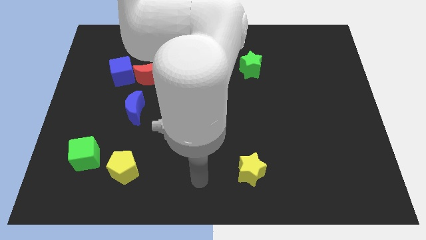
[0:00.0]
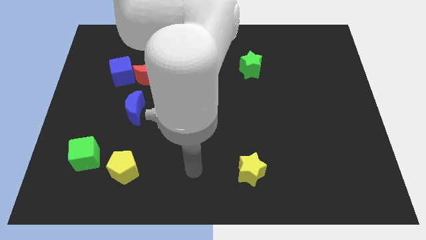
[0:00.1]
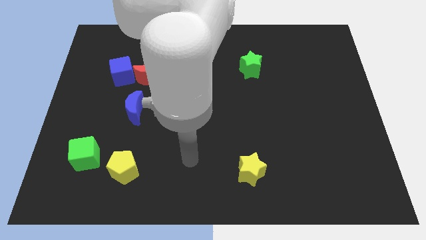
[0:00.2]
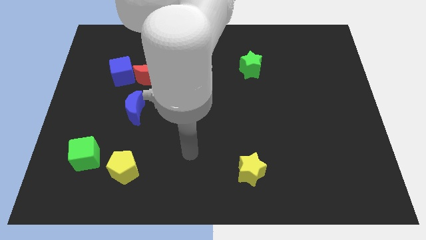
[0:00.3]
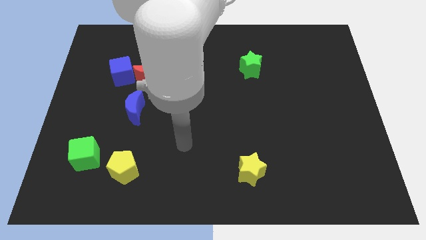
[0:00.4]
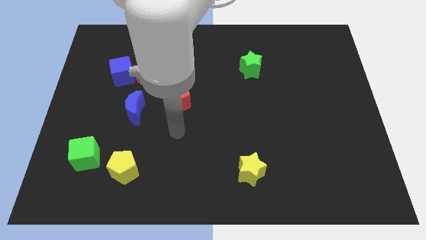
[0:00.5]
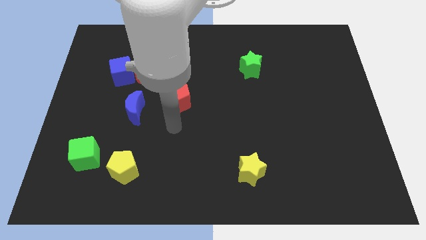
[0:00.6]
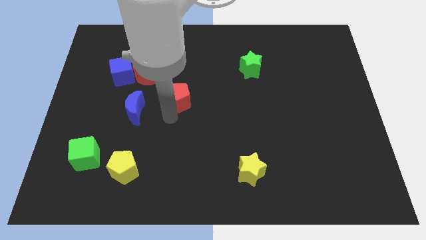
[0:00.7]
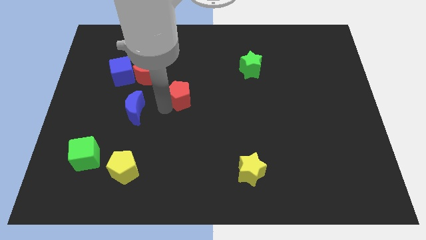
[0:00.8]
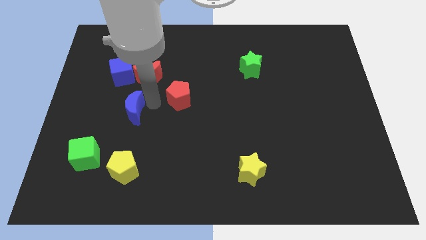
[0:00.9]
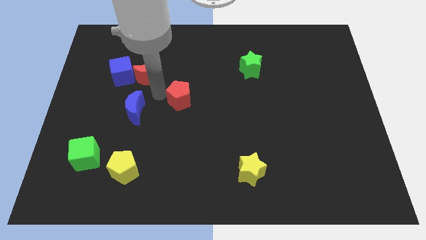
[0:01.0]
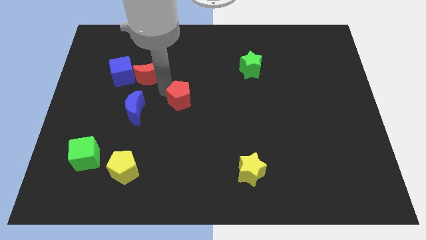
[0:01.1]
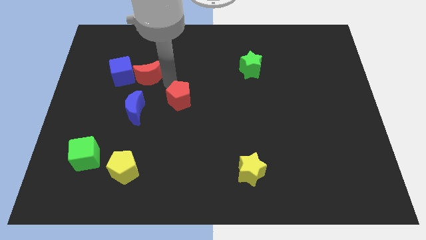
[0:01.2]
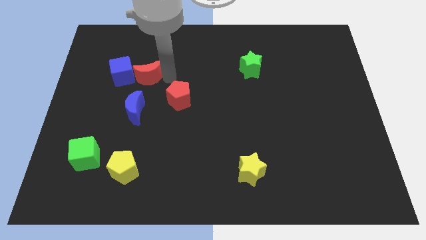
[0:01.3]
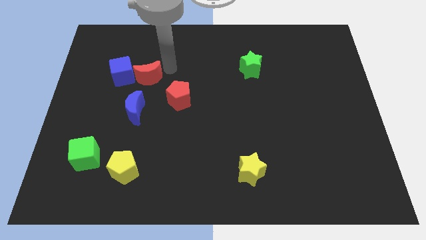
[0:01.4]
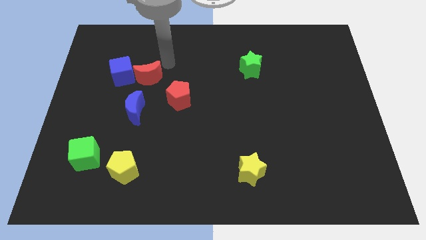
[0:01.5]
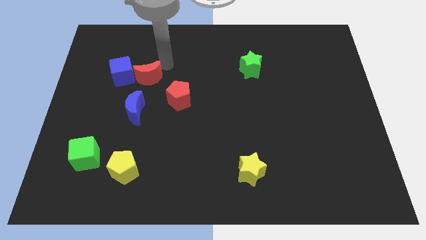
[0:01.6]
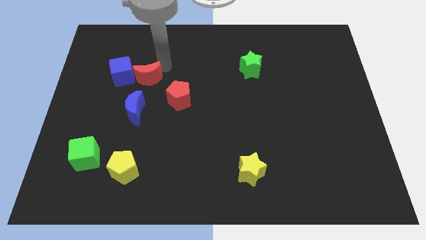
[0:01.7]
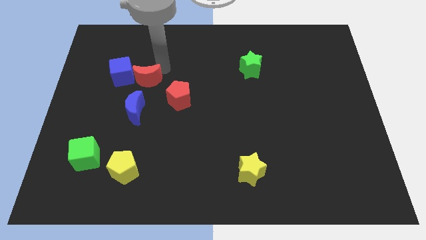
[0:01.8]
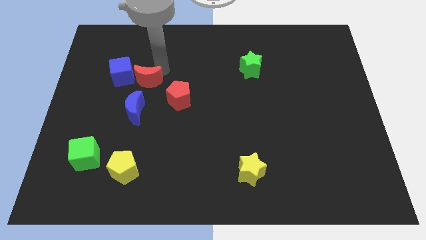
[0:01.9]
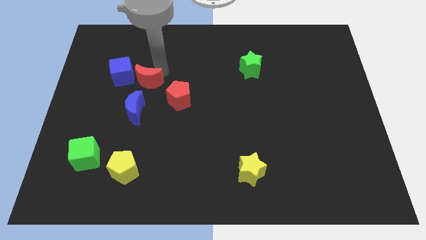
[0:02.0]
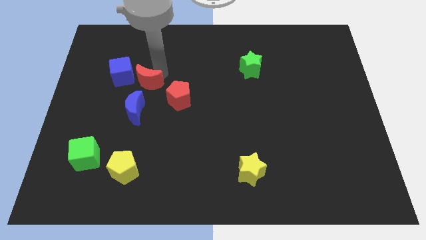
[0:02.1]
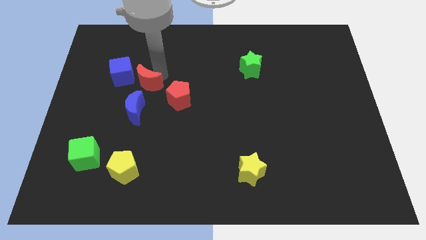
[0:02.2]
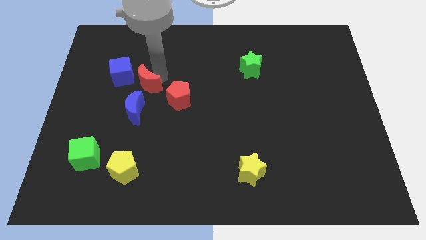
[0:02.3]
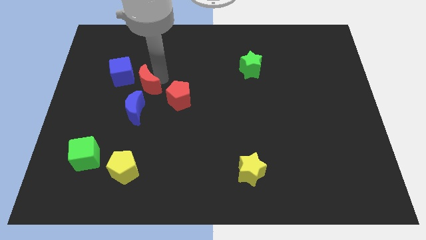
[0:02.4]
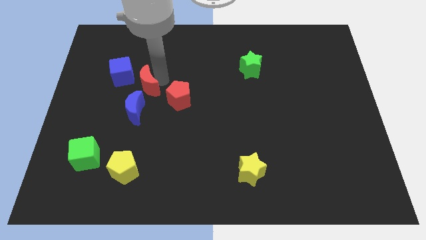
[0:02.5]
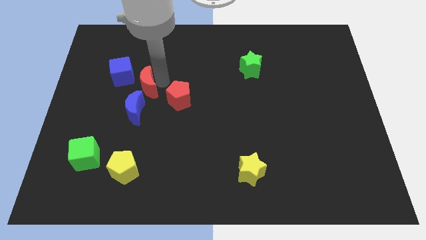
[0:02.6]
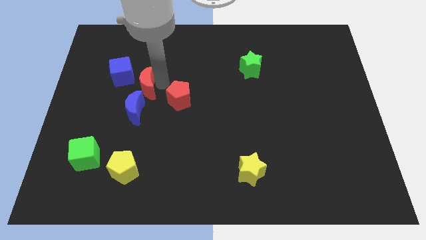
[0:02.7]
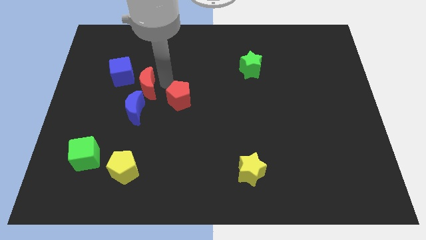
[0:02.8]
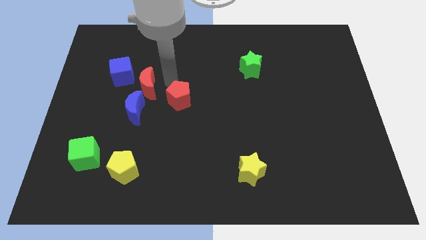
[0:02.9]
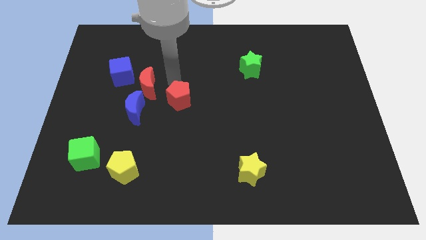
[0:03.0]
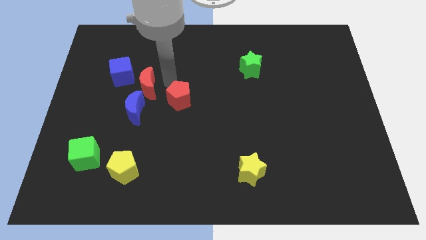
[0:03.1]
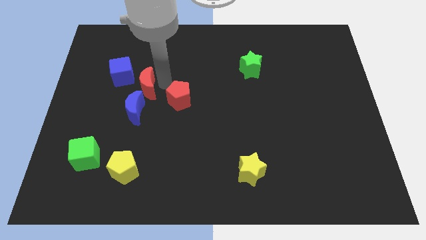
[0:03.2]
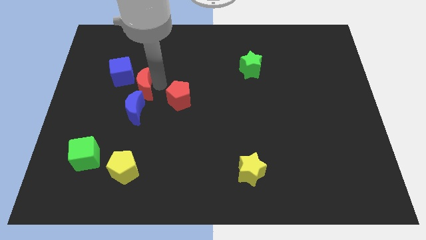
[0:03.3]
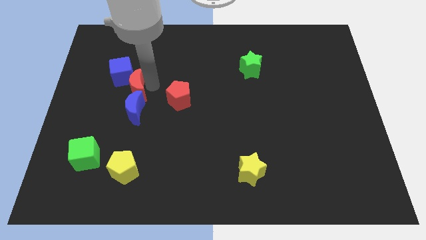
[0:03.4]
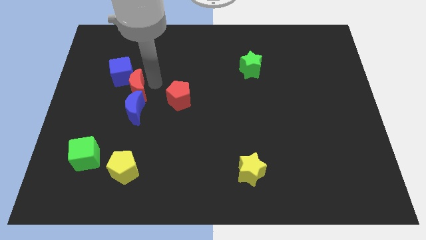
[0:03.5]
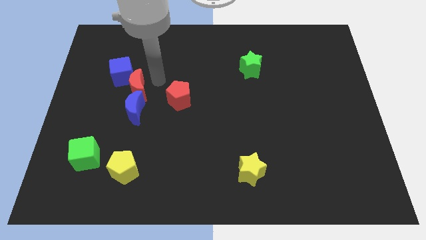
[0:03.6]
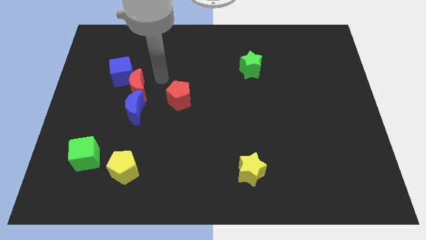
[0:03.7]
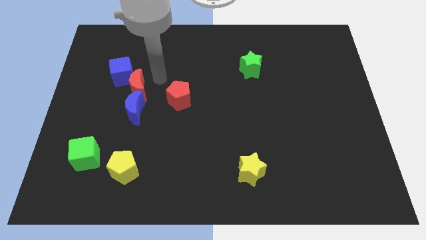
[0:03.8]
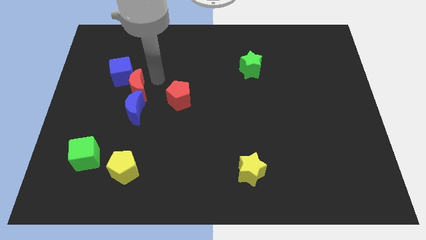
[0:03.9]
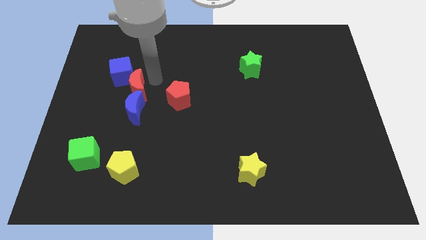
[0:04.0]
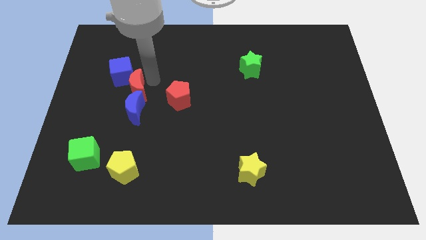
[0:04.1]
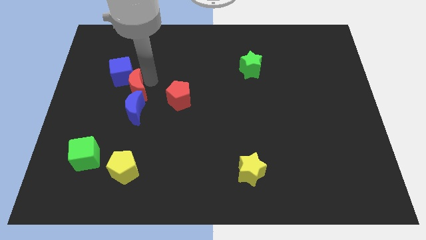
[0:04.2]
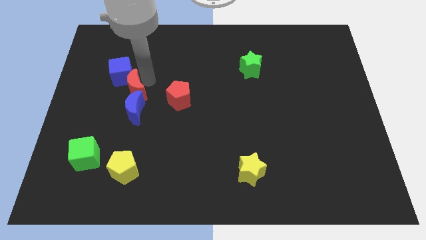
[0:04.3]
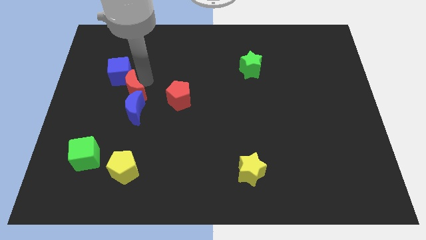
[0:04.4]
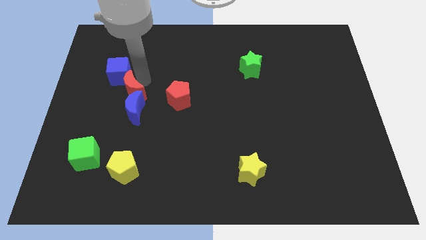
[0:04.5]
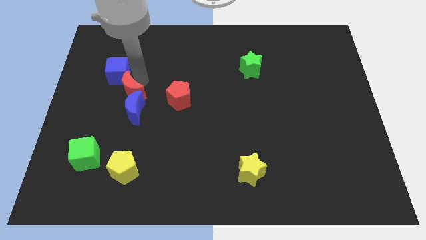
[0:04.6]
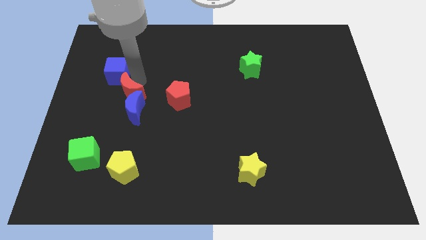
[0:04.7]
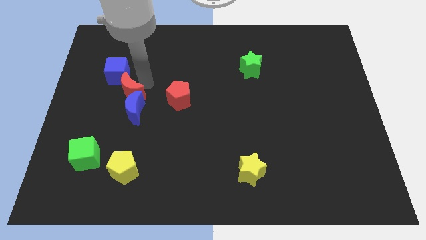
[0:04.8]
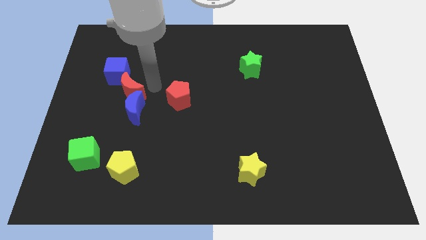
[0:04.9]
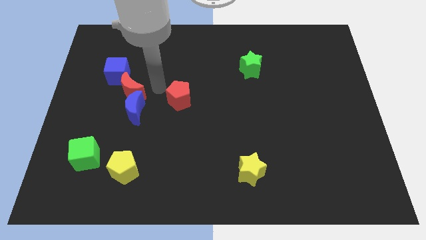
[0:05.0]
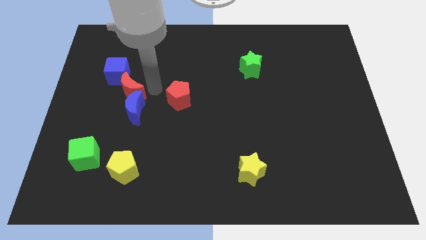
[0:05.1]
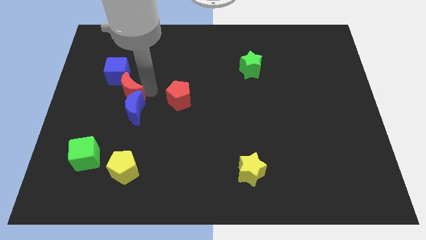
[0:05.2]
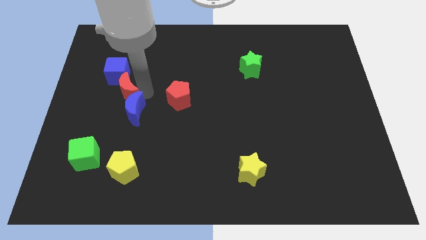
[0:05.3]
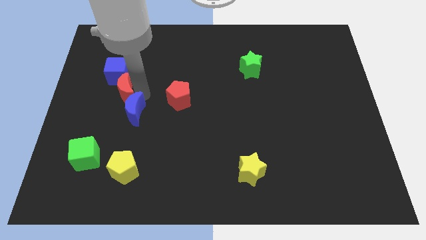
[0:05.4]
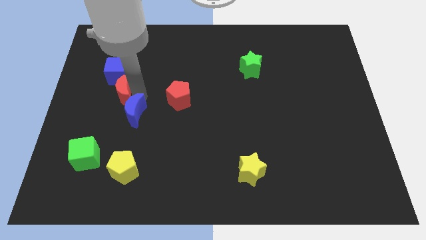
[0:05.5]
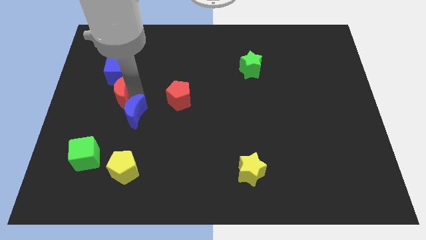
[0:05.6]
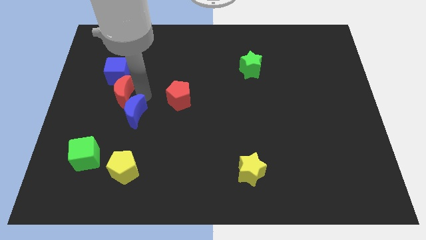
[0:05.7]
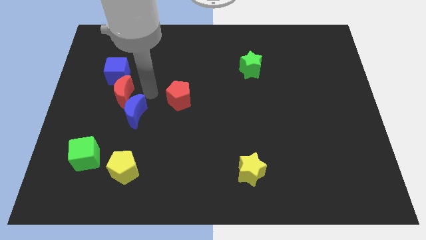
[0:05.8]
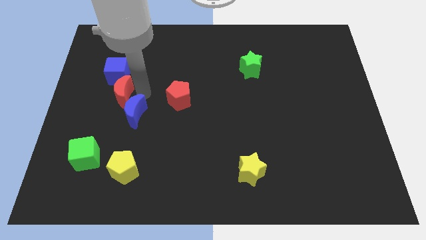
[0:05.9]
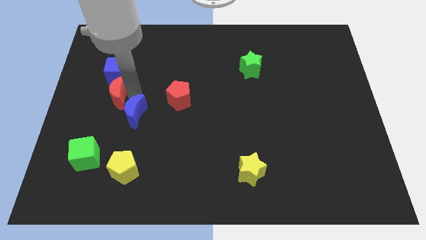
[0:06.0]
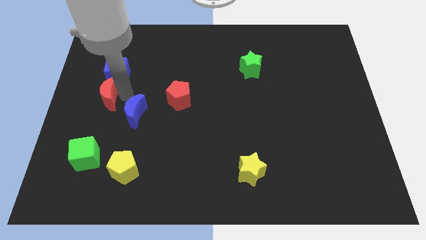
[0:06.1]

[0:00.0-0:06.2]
move the red moon to the left side of the board
